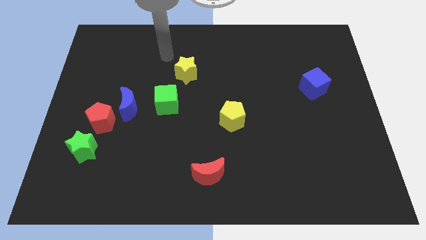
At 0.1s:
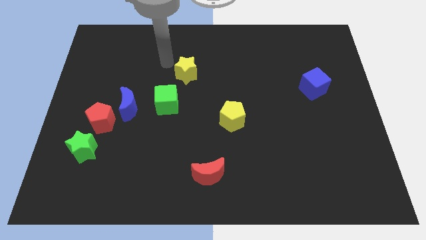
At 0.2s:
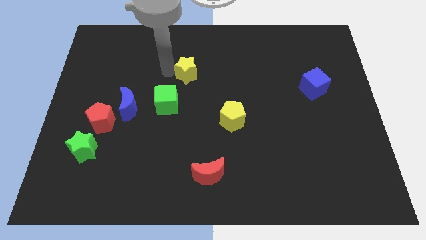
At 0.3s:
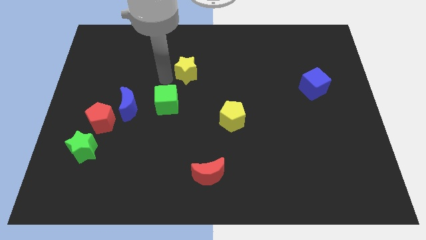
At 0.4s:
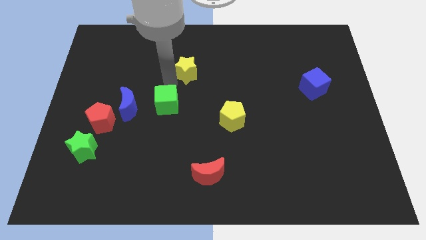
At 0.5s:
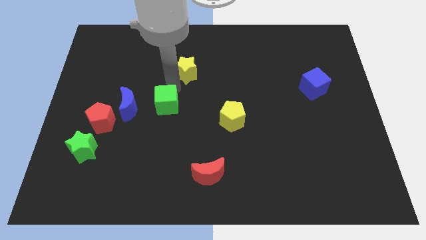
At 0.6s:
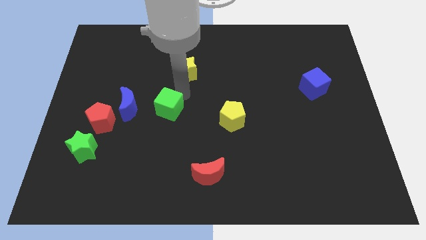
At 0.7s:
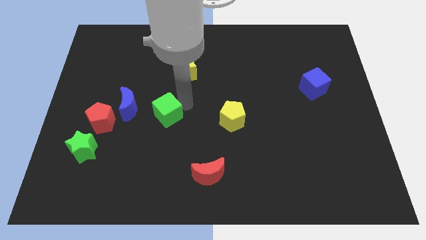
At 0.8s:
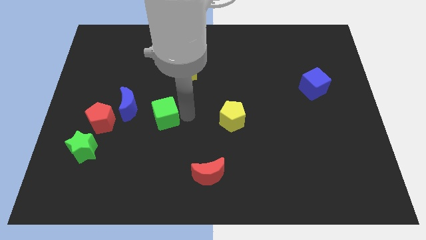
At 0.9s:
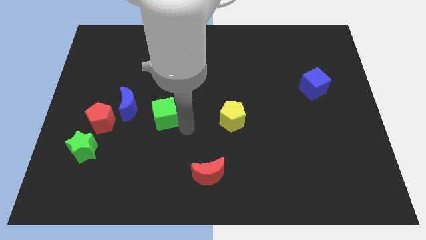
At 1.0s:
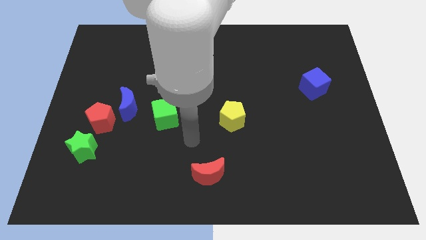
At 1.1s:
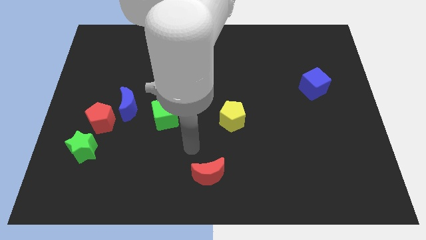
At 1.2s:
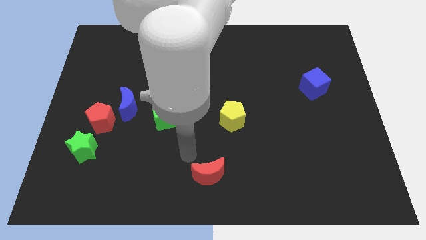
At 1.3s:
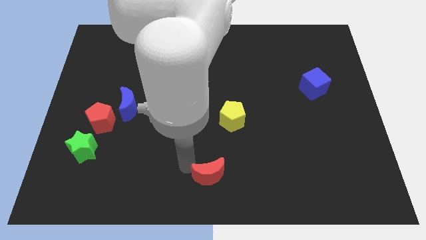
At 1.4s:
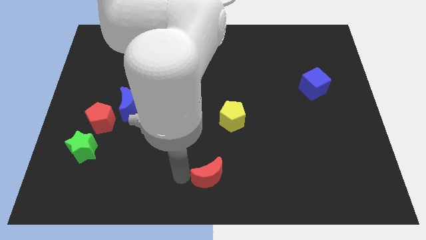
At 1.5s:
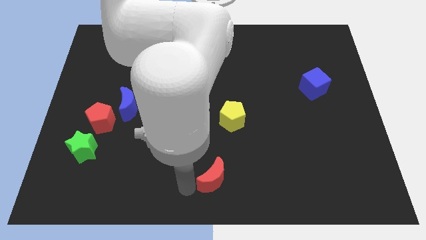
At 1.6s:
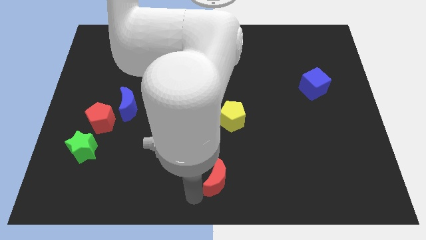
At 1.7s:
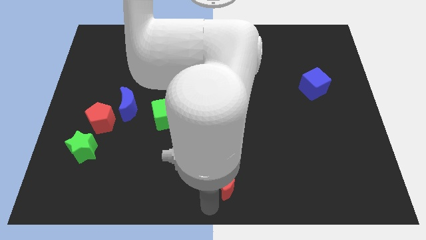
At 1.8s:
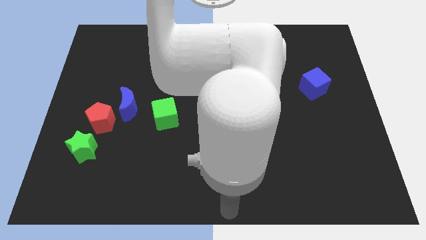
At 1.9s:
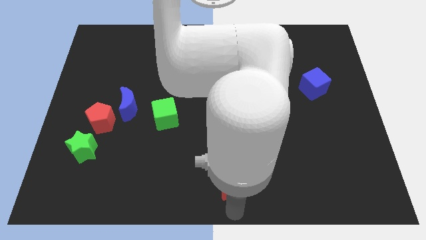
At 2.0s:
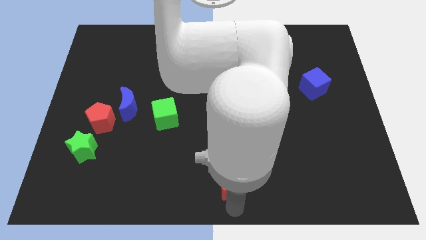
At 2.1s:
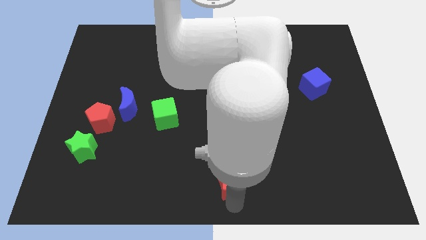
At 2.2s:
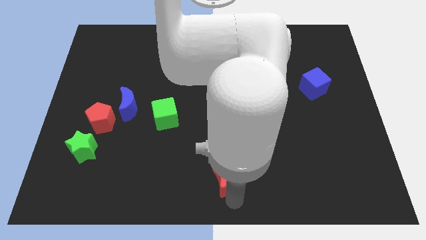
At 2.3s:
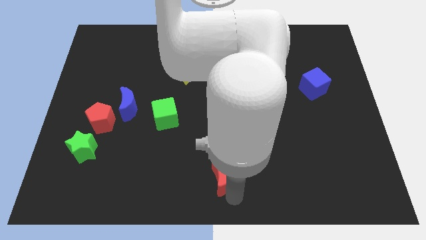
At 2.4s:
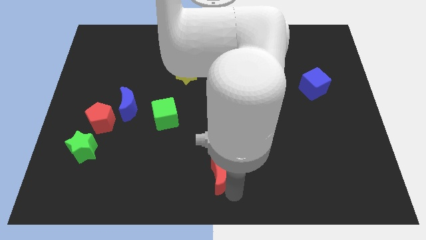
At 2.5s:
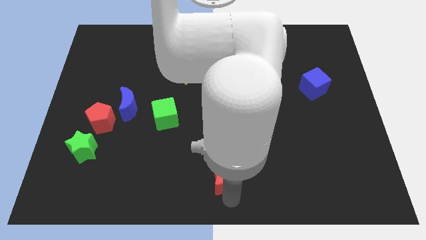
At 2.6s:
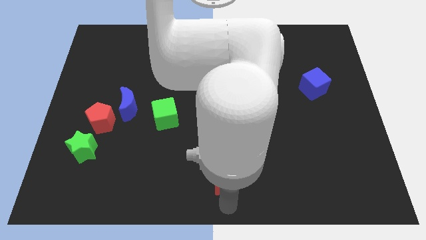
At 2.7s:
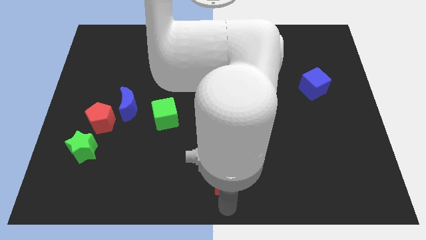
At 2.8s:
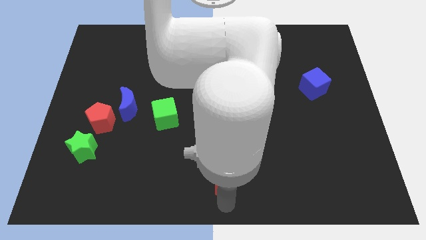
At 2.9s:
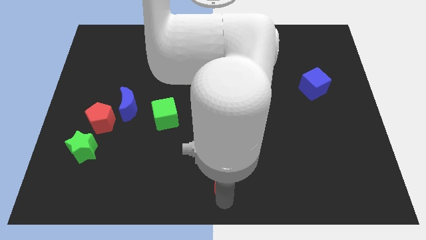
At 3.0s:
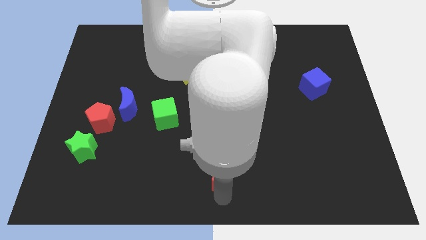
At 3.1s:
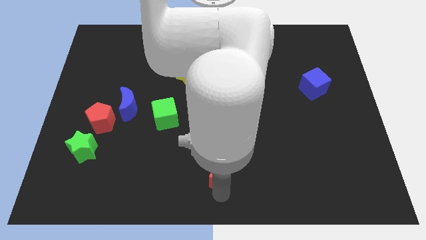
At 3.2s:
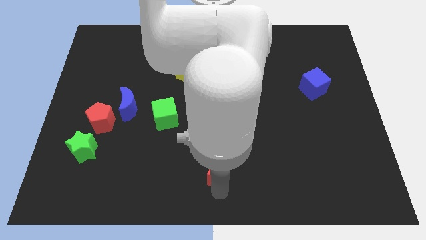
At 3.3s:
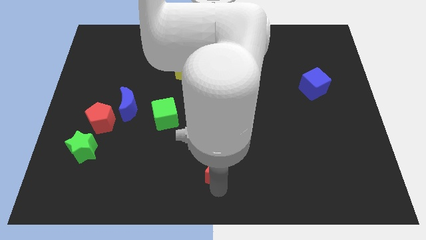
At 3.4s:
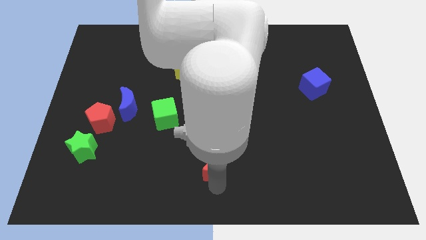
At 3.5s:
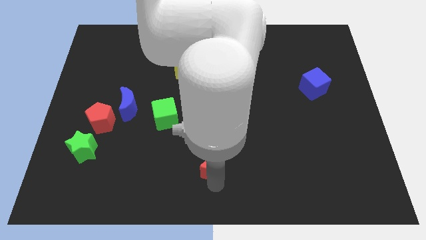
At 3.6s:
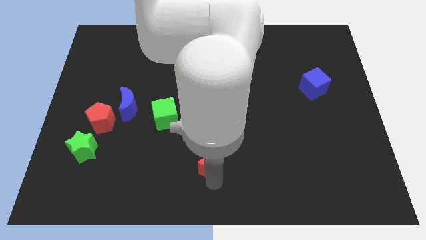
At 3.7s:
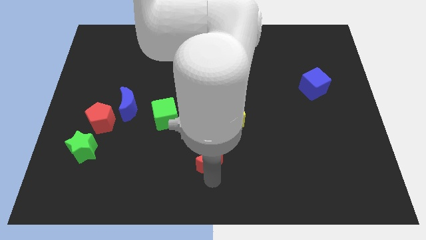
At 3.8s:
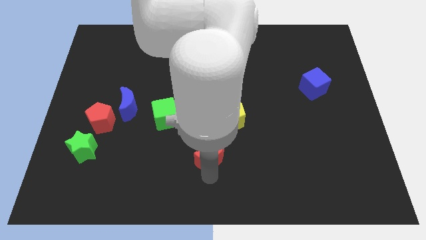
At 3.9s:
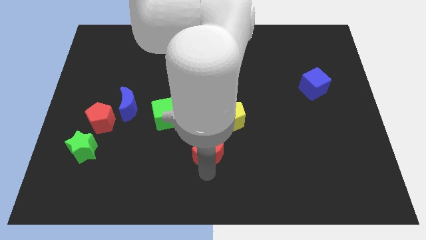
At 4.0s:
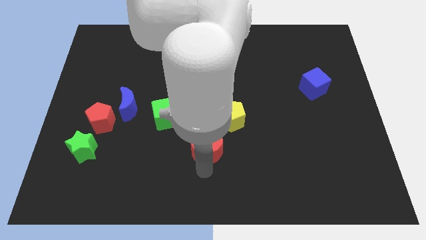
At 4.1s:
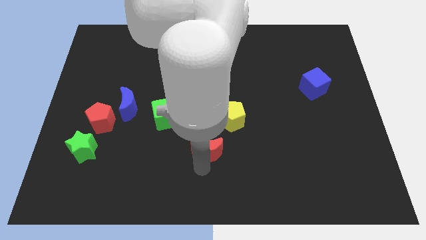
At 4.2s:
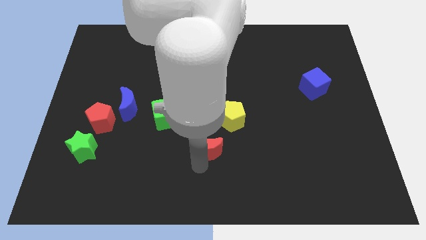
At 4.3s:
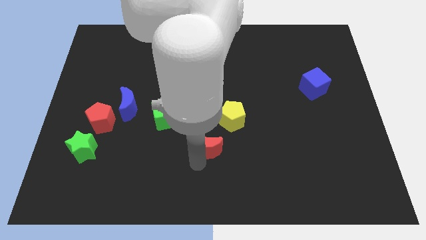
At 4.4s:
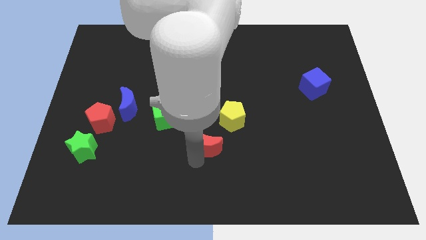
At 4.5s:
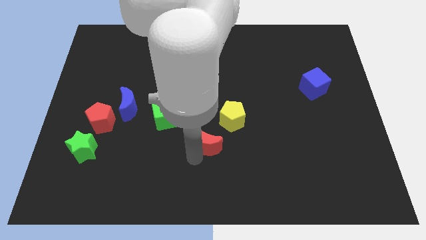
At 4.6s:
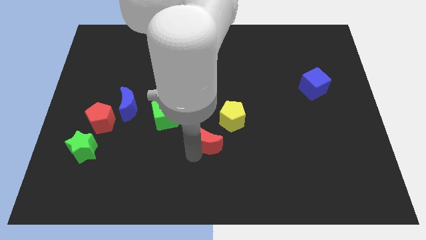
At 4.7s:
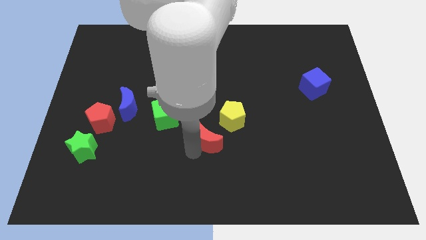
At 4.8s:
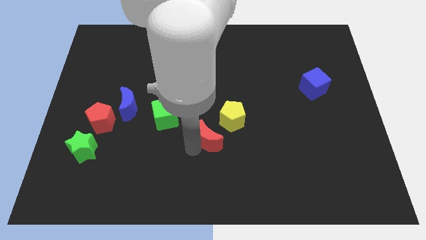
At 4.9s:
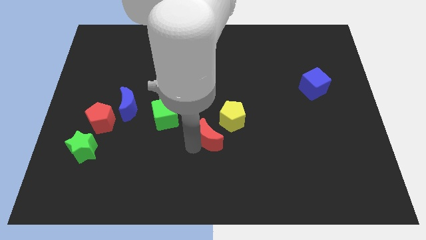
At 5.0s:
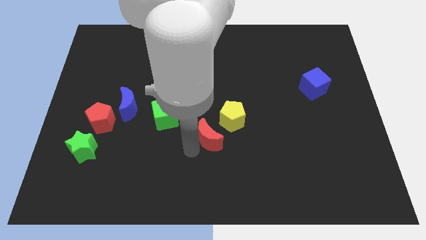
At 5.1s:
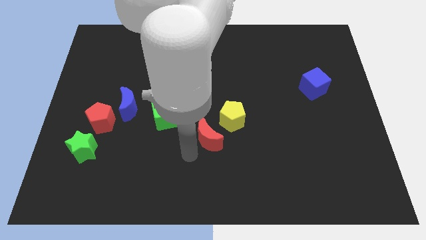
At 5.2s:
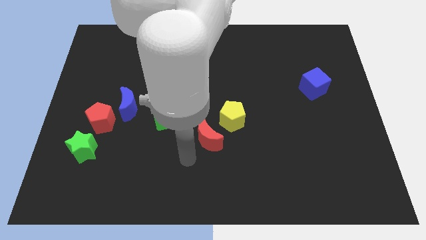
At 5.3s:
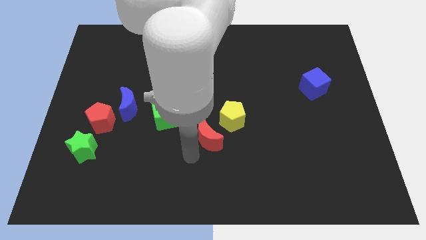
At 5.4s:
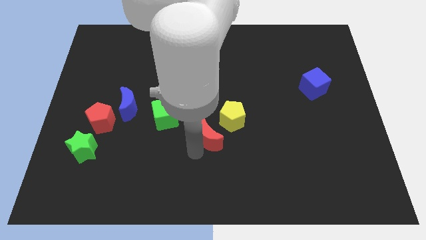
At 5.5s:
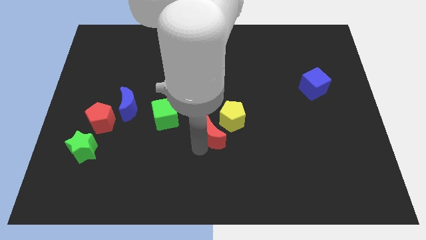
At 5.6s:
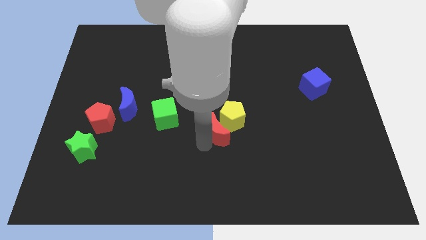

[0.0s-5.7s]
put the red moon next to the yellow pentagon

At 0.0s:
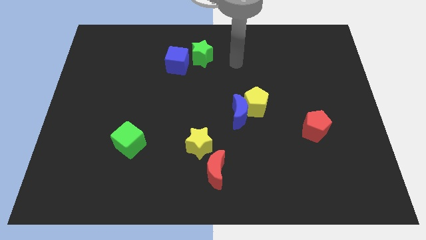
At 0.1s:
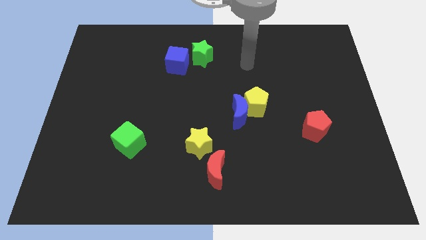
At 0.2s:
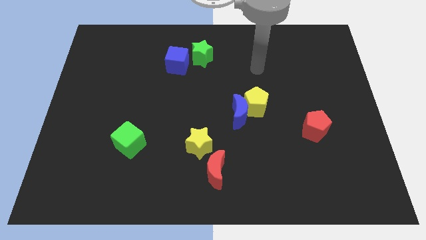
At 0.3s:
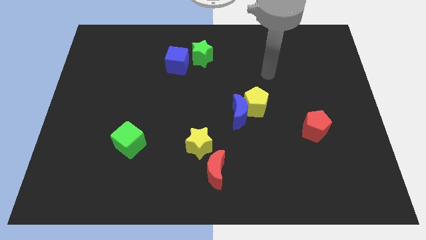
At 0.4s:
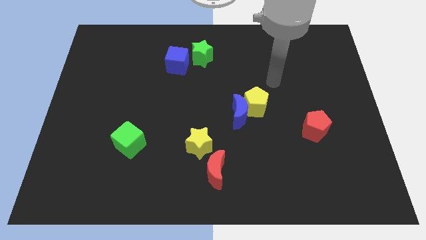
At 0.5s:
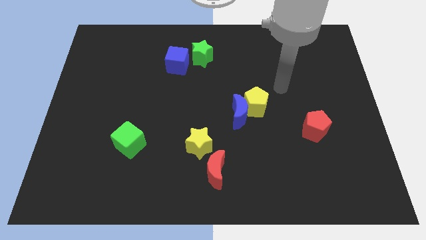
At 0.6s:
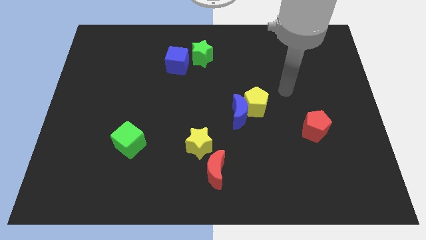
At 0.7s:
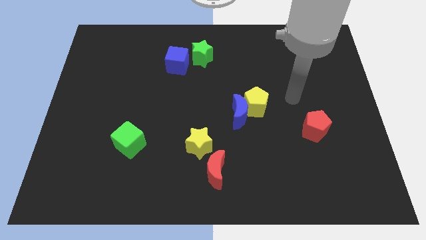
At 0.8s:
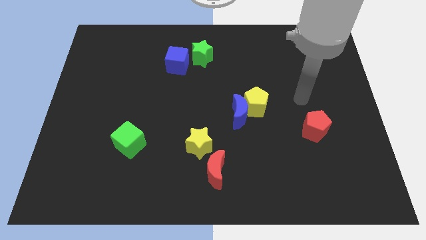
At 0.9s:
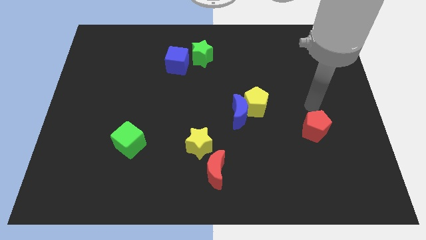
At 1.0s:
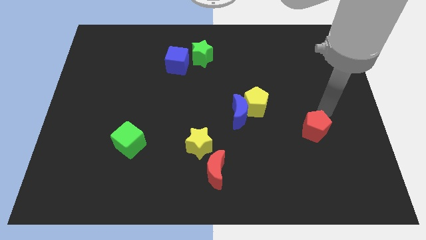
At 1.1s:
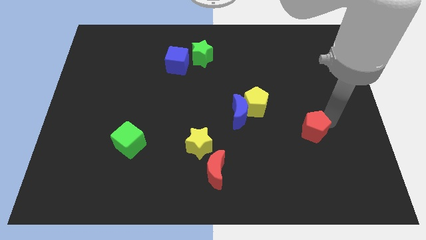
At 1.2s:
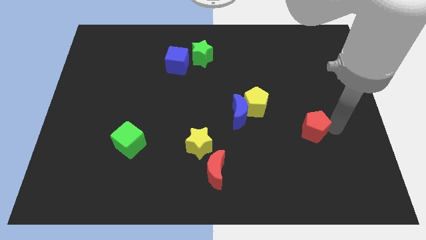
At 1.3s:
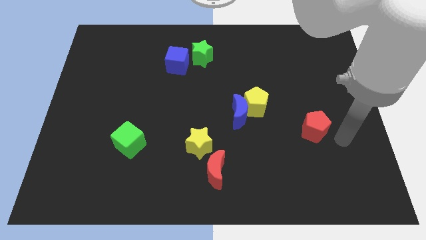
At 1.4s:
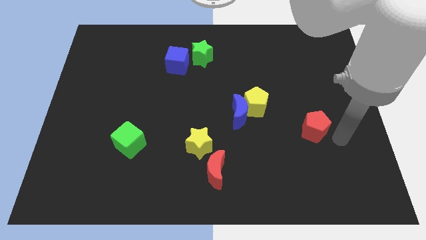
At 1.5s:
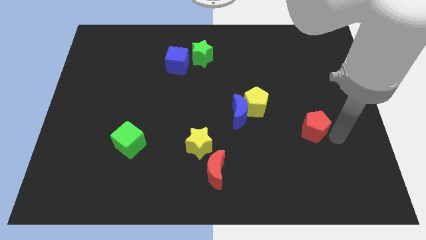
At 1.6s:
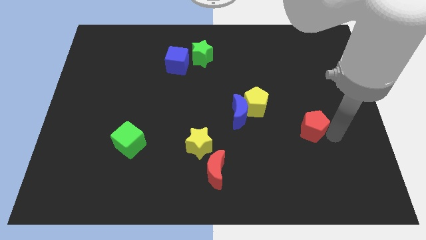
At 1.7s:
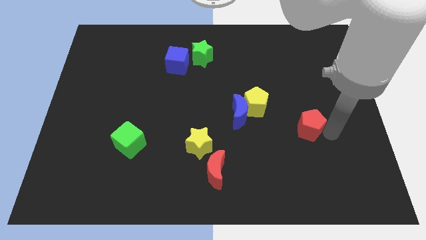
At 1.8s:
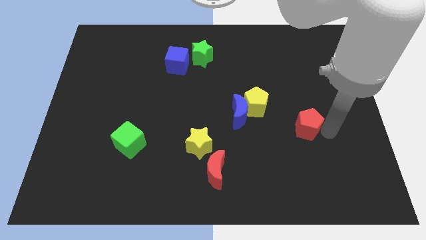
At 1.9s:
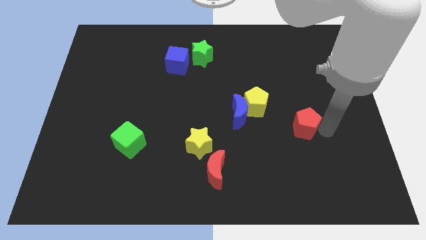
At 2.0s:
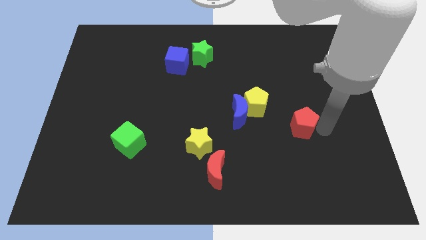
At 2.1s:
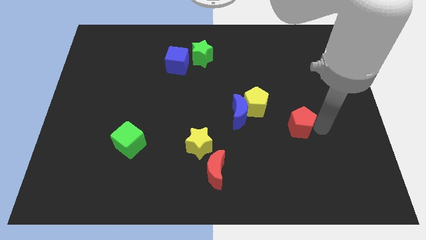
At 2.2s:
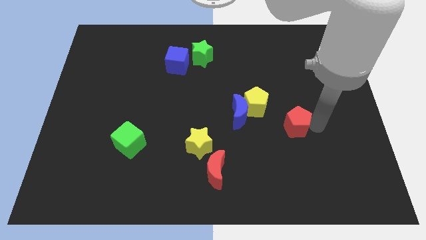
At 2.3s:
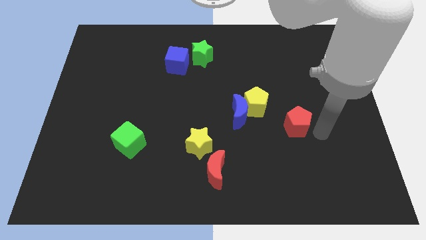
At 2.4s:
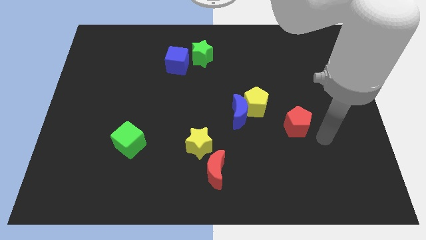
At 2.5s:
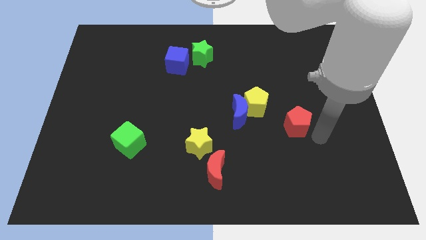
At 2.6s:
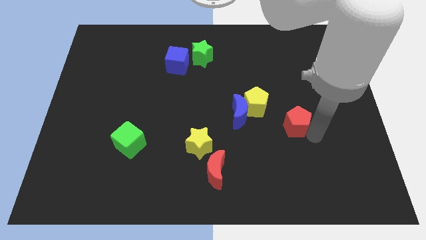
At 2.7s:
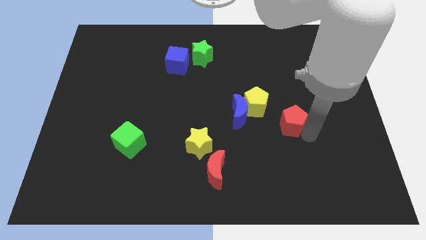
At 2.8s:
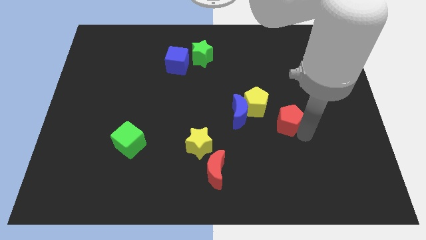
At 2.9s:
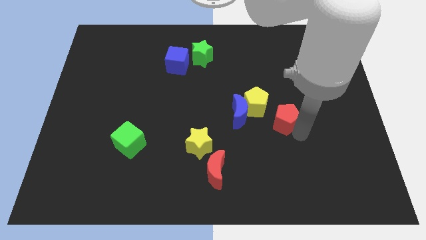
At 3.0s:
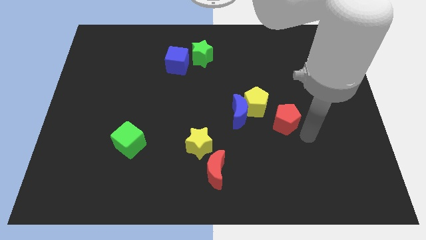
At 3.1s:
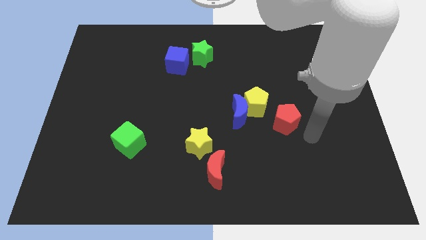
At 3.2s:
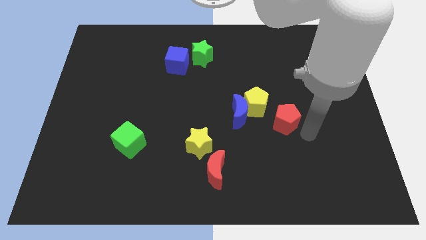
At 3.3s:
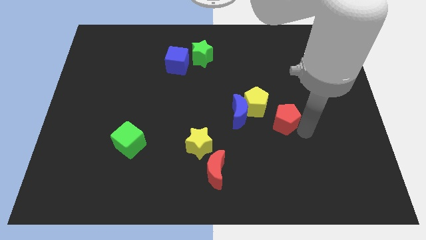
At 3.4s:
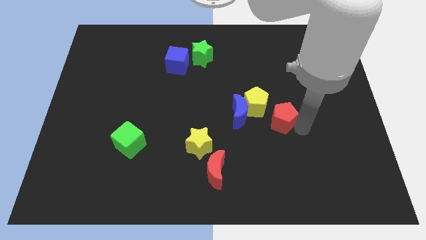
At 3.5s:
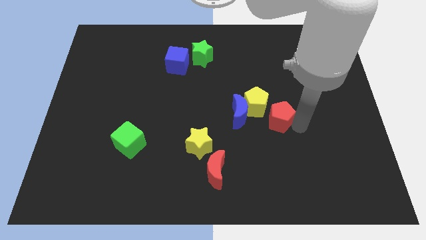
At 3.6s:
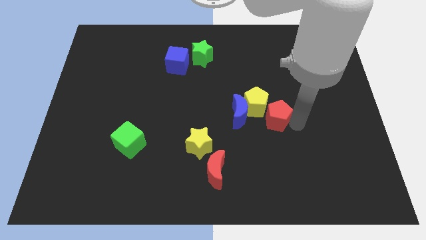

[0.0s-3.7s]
move the red pentagon close to the yellow pentagon
